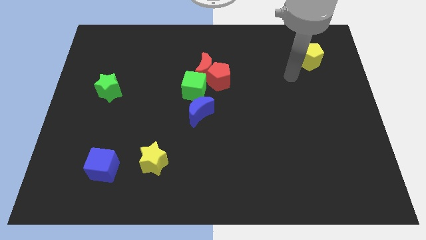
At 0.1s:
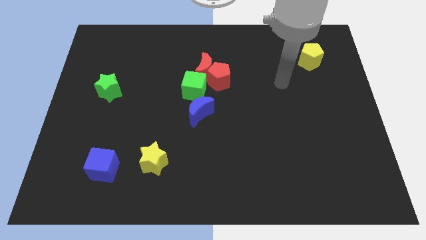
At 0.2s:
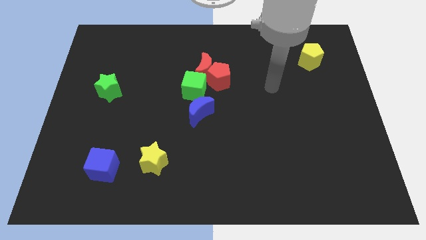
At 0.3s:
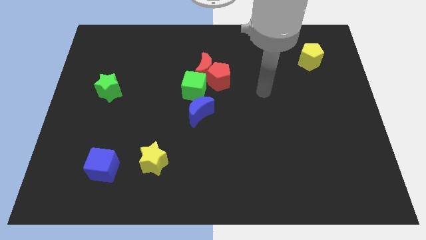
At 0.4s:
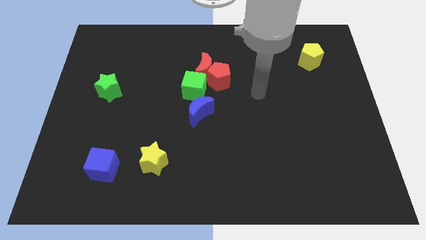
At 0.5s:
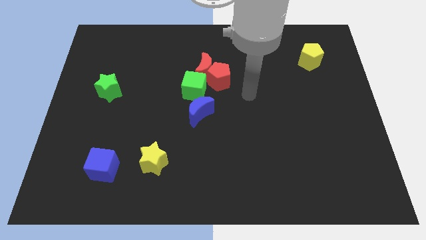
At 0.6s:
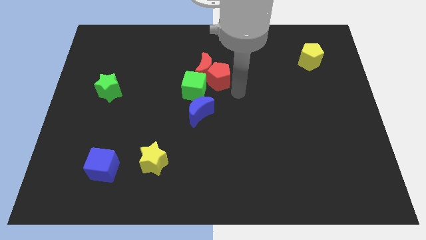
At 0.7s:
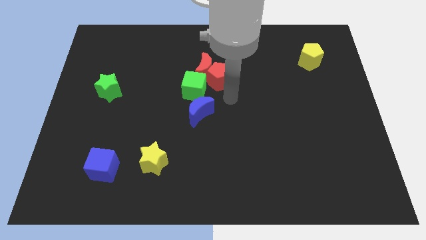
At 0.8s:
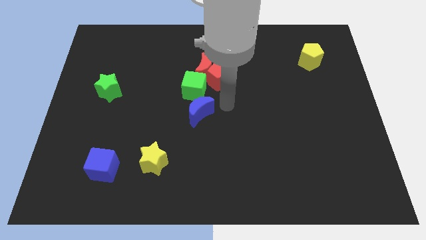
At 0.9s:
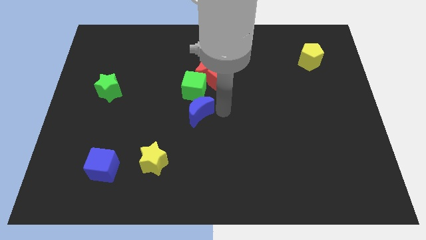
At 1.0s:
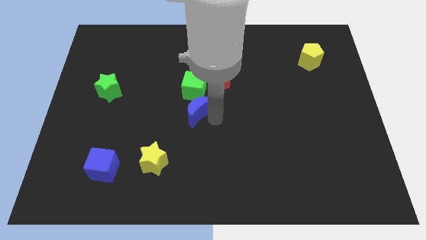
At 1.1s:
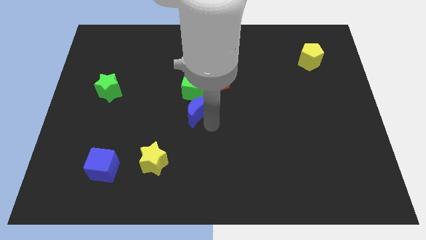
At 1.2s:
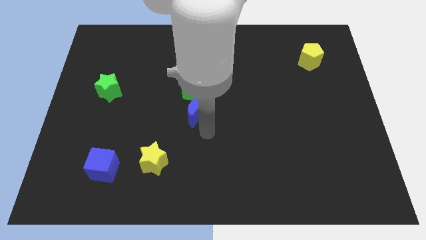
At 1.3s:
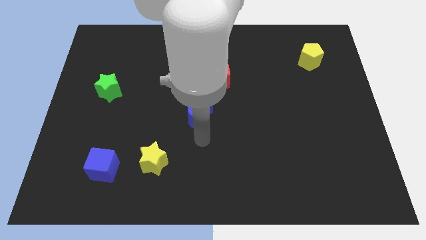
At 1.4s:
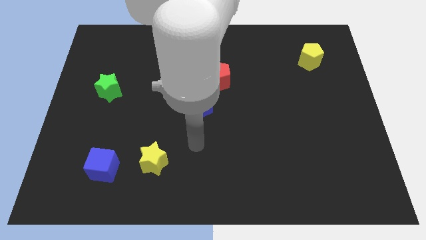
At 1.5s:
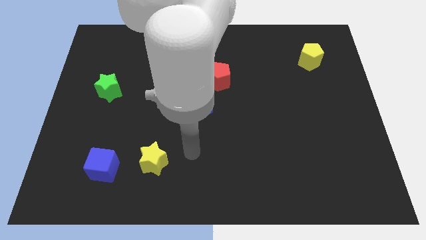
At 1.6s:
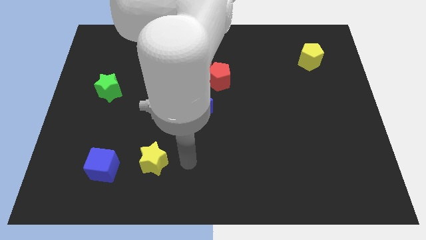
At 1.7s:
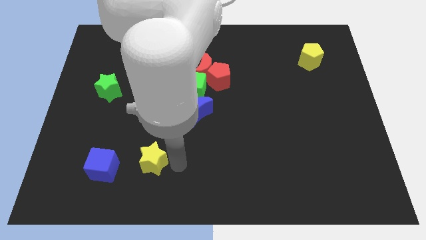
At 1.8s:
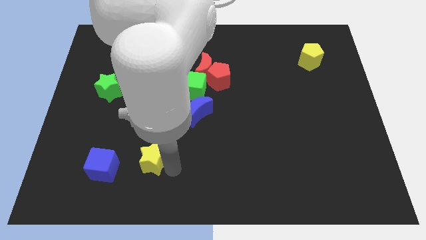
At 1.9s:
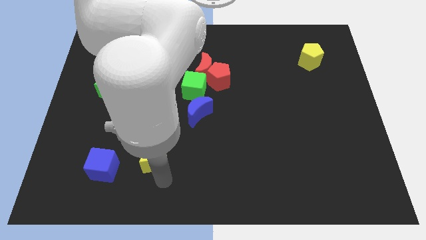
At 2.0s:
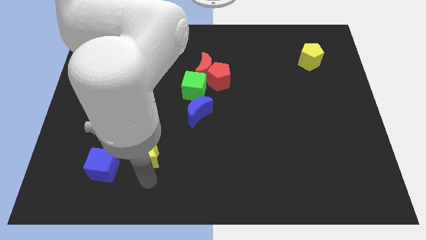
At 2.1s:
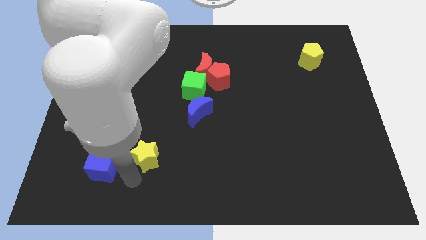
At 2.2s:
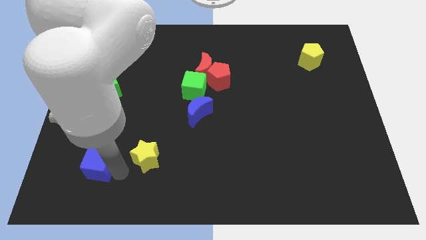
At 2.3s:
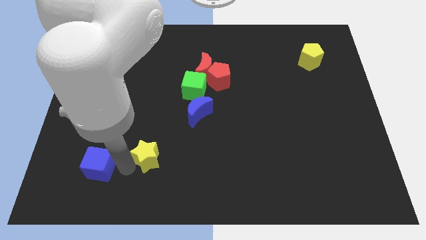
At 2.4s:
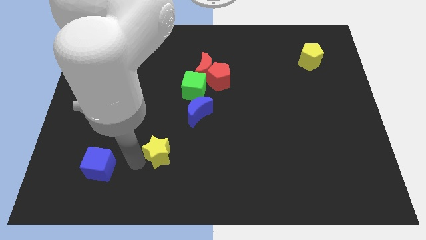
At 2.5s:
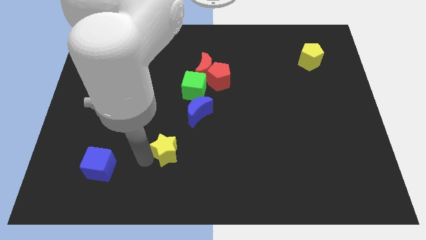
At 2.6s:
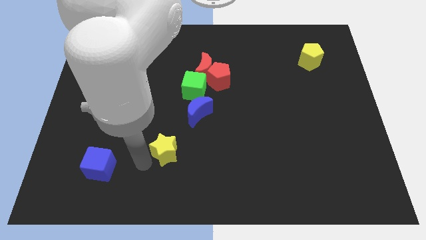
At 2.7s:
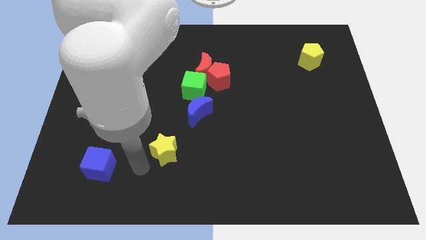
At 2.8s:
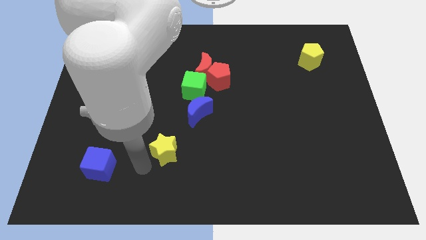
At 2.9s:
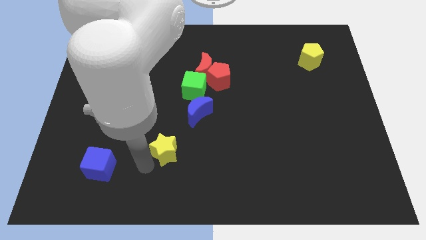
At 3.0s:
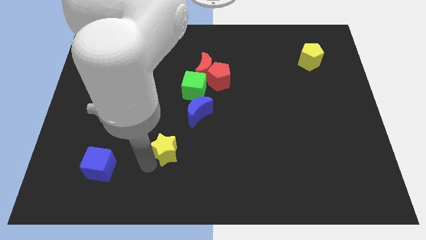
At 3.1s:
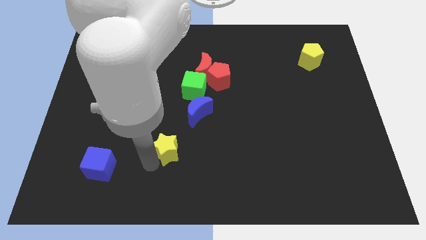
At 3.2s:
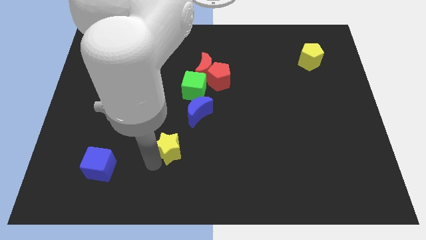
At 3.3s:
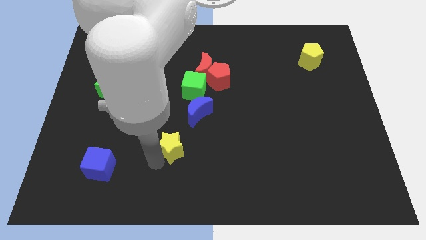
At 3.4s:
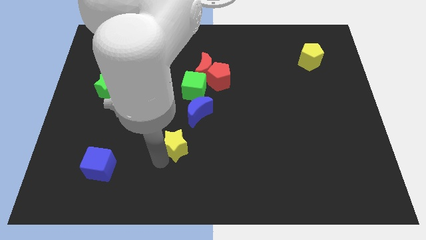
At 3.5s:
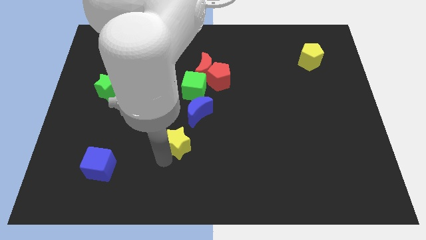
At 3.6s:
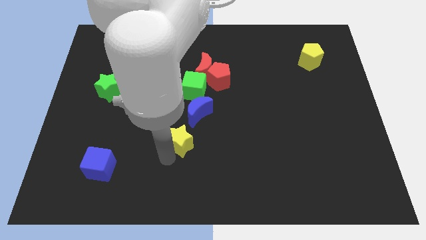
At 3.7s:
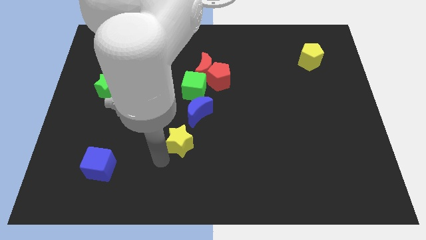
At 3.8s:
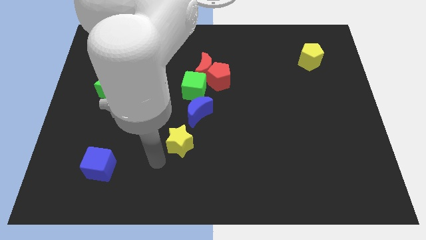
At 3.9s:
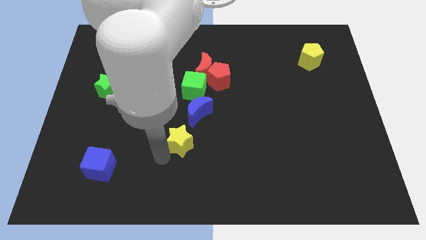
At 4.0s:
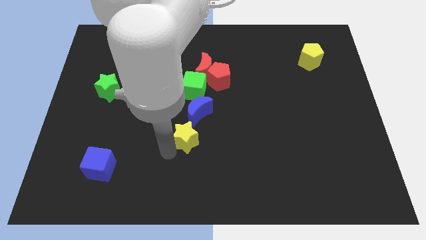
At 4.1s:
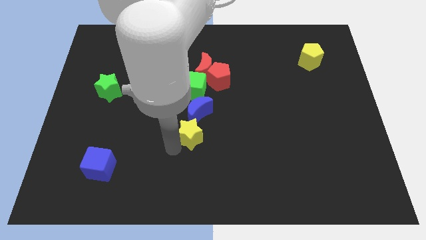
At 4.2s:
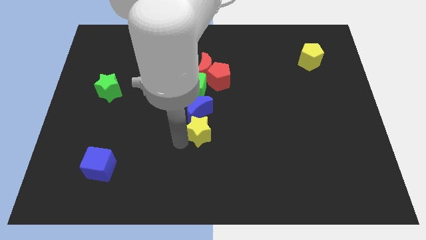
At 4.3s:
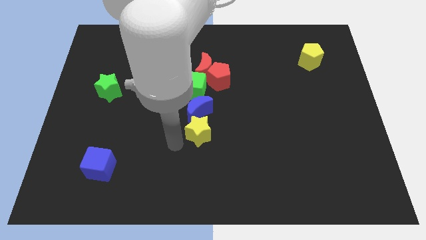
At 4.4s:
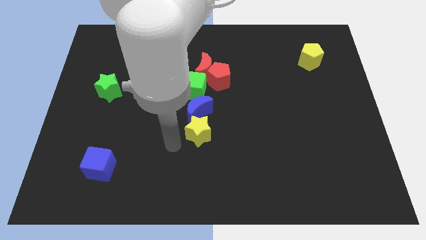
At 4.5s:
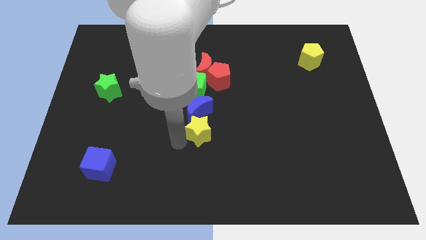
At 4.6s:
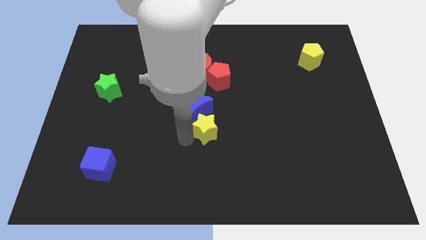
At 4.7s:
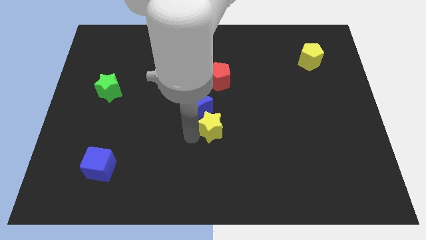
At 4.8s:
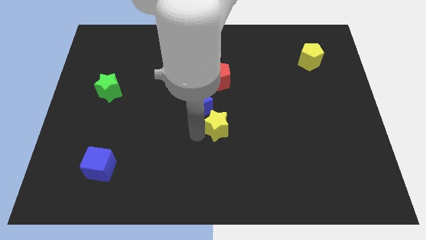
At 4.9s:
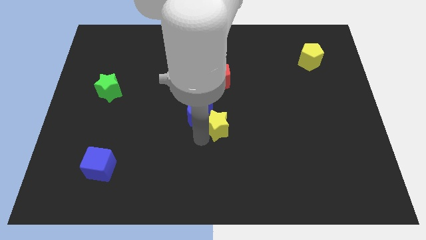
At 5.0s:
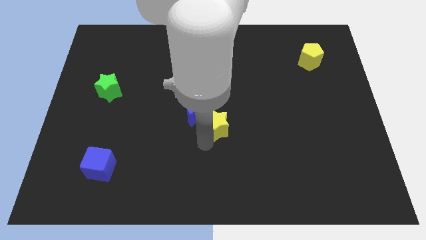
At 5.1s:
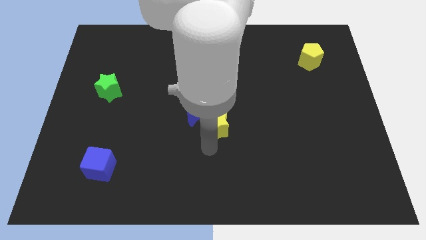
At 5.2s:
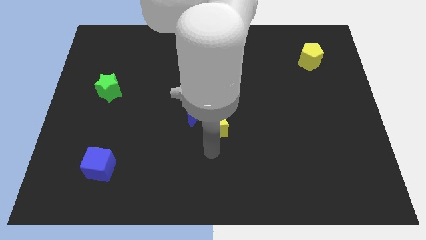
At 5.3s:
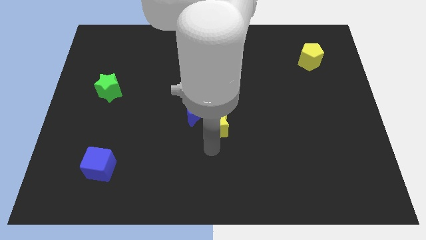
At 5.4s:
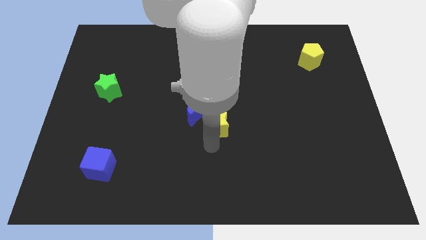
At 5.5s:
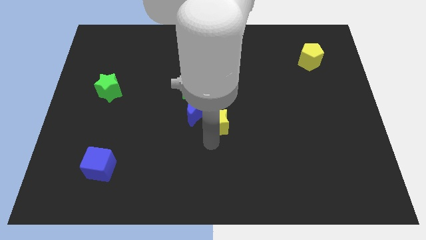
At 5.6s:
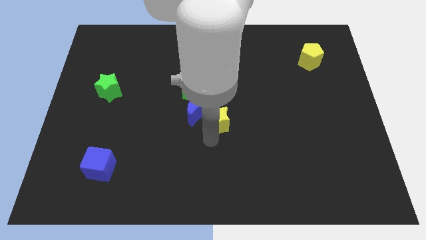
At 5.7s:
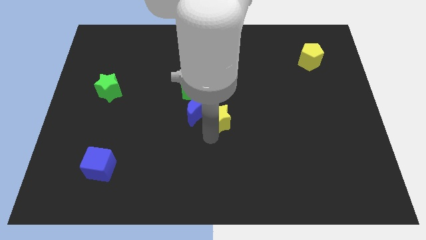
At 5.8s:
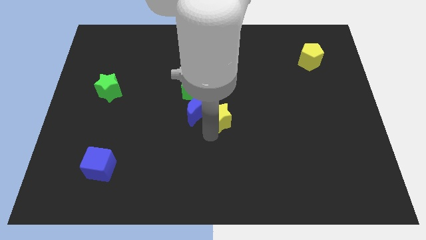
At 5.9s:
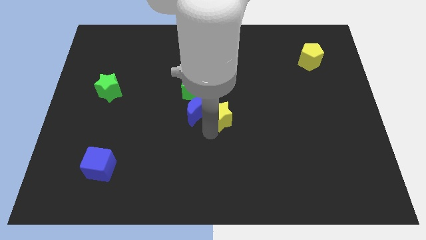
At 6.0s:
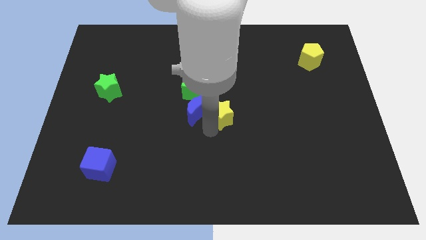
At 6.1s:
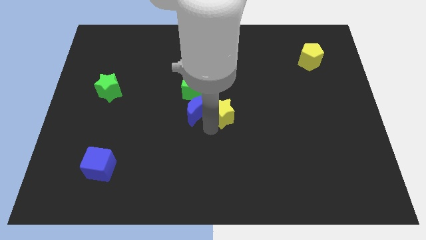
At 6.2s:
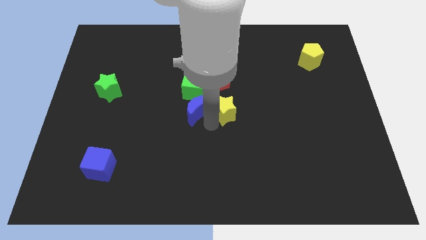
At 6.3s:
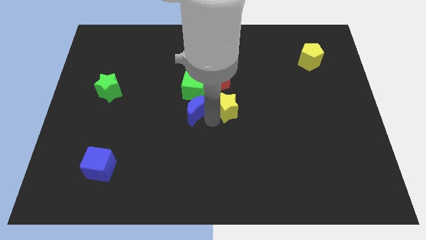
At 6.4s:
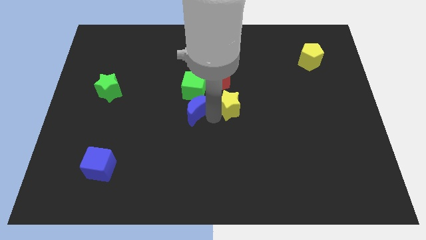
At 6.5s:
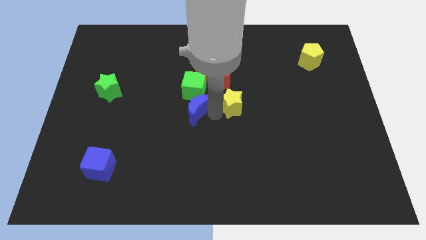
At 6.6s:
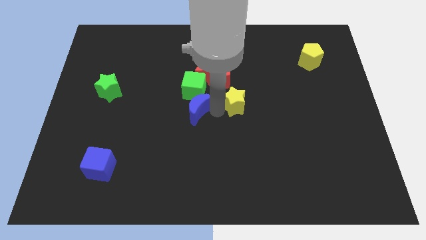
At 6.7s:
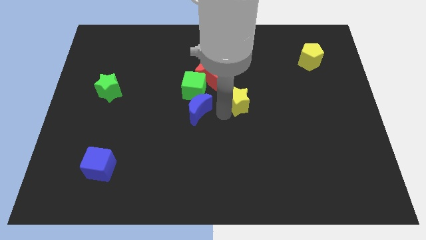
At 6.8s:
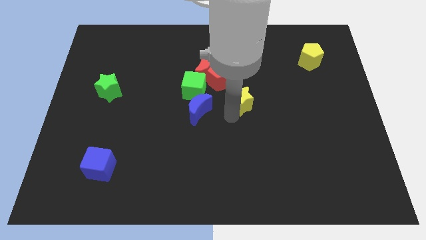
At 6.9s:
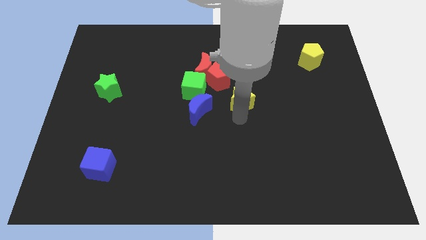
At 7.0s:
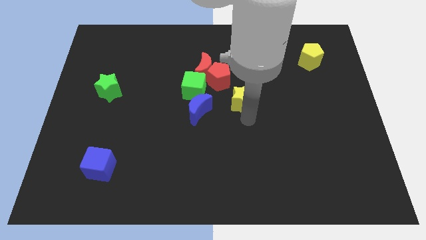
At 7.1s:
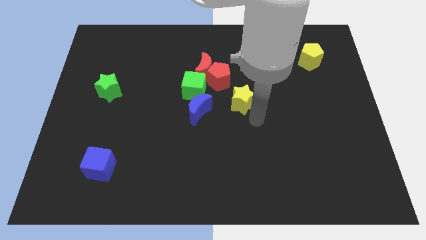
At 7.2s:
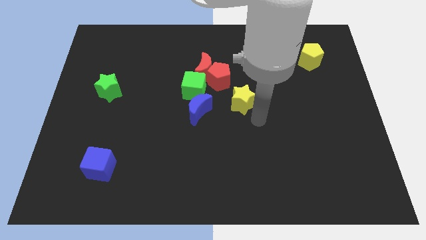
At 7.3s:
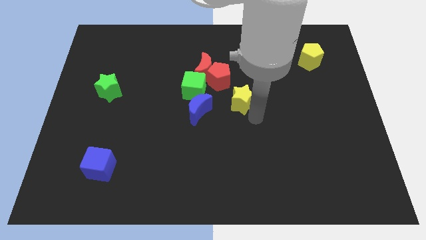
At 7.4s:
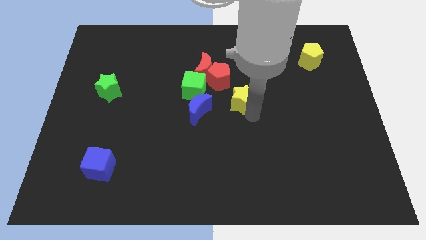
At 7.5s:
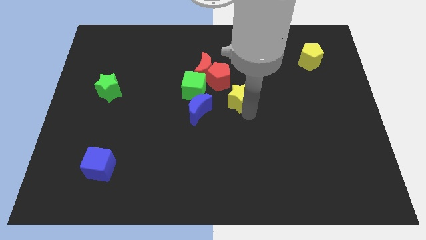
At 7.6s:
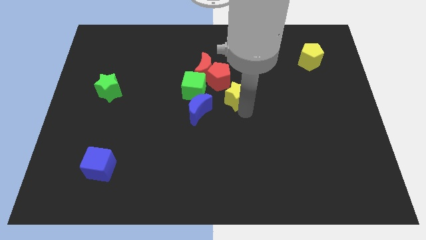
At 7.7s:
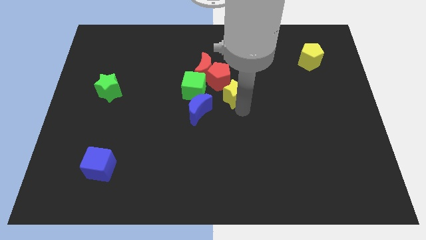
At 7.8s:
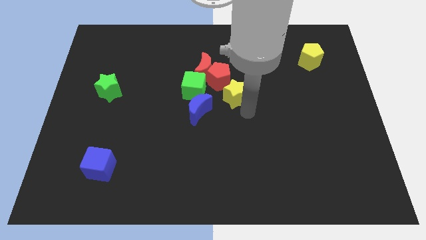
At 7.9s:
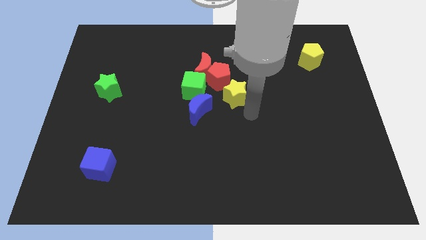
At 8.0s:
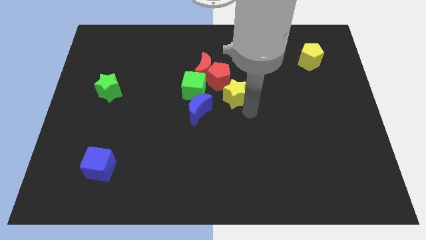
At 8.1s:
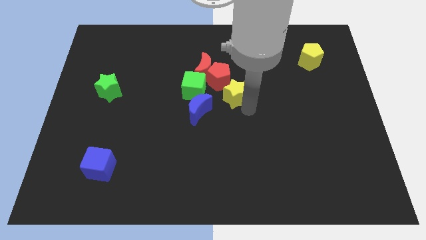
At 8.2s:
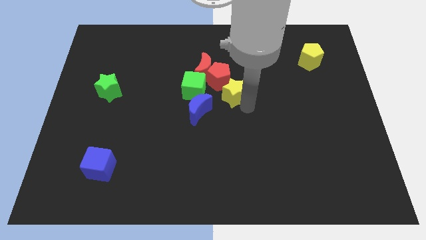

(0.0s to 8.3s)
push the yellow star close to the red pentagon
